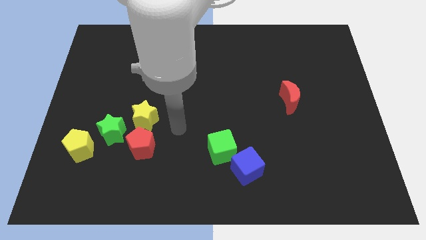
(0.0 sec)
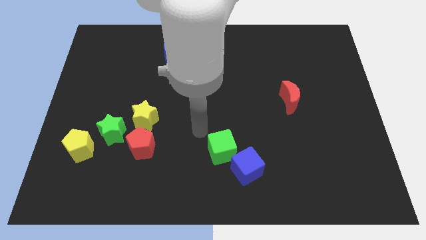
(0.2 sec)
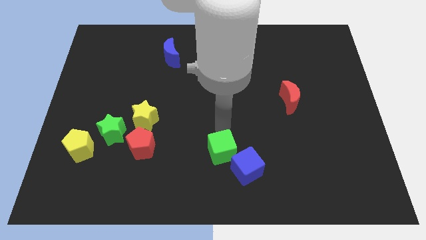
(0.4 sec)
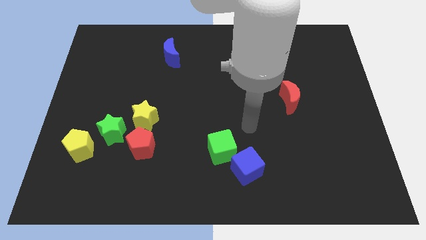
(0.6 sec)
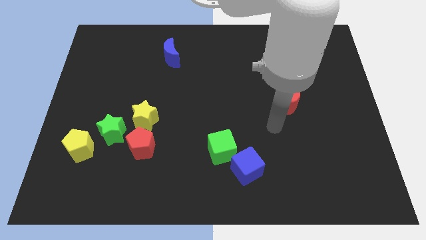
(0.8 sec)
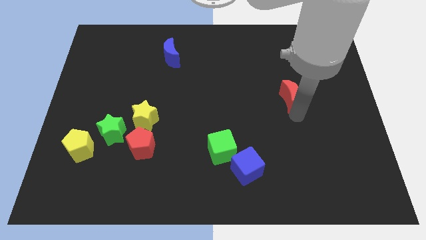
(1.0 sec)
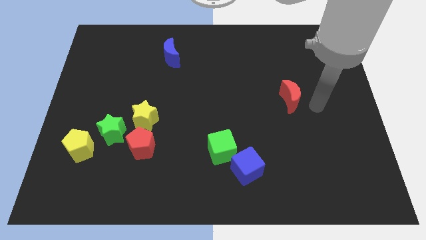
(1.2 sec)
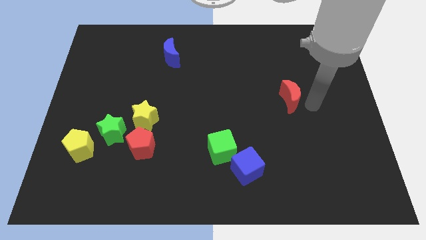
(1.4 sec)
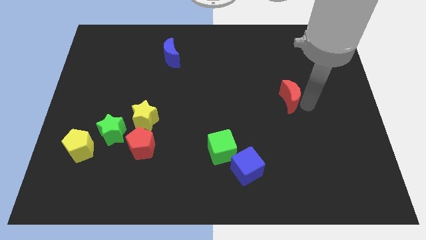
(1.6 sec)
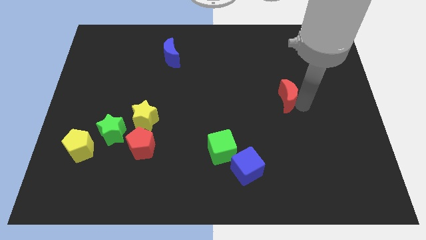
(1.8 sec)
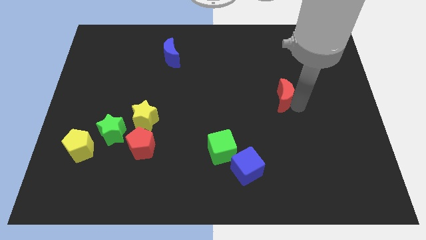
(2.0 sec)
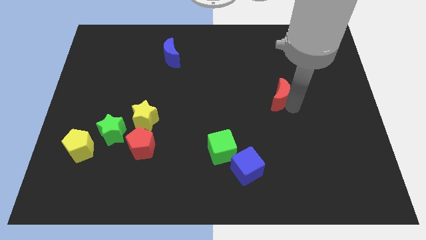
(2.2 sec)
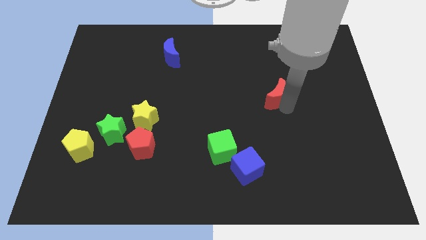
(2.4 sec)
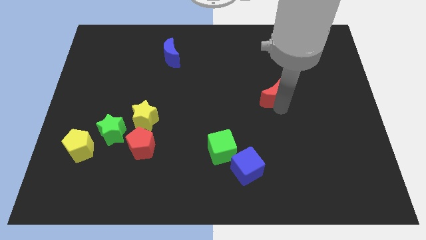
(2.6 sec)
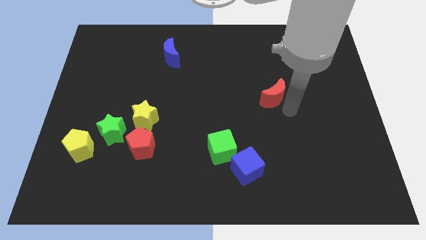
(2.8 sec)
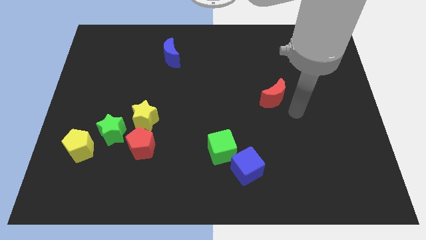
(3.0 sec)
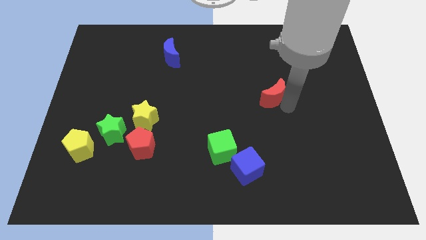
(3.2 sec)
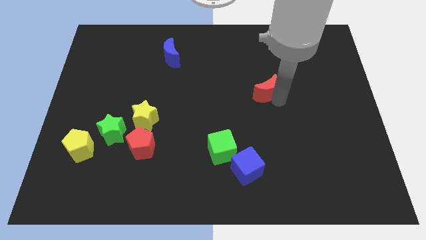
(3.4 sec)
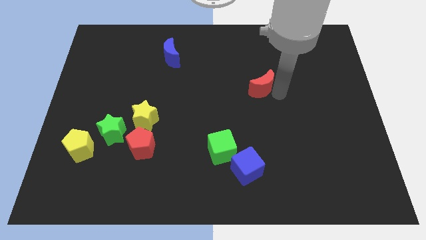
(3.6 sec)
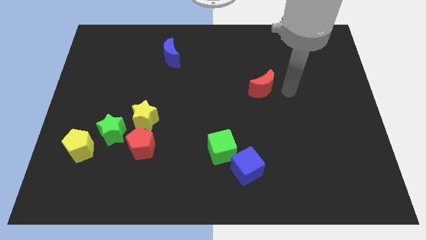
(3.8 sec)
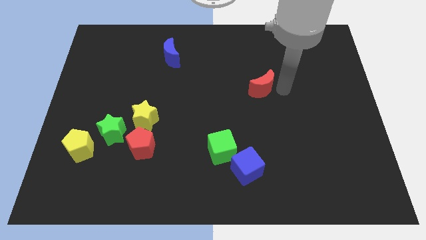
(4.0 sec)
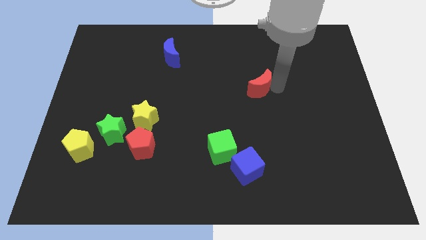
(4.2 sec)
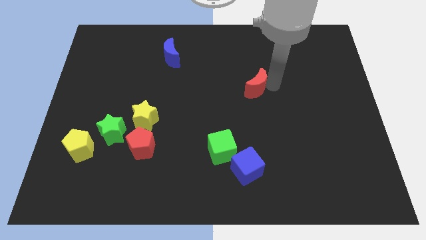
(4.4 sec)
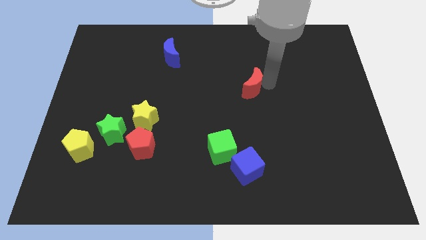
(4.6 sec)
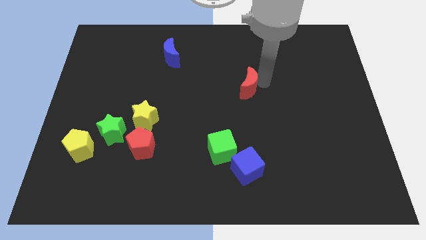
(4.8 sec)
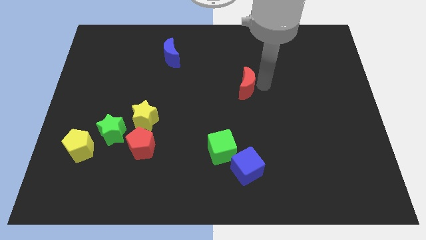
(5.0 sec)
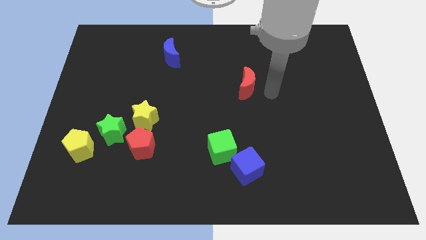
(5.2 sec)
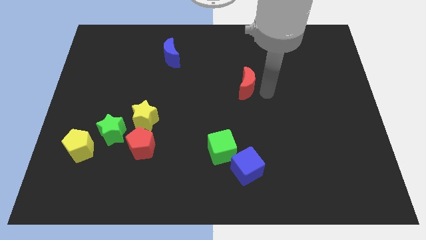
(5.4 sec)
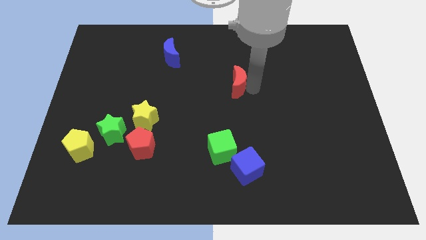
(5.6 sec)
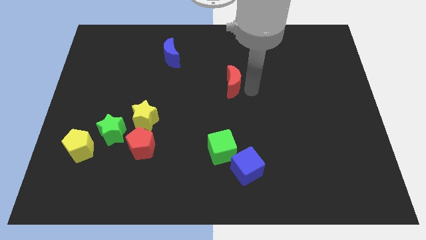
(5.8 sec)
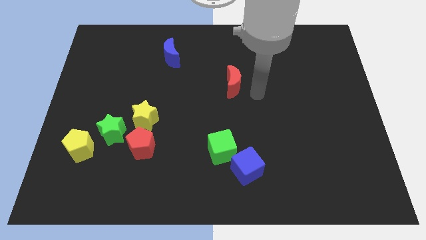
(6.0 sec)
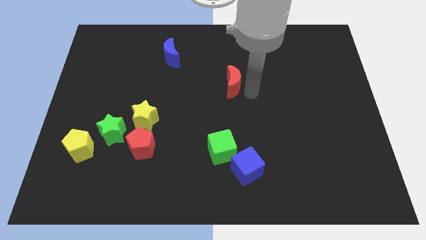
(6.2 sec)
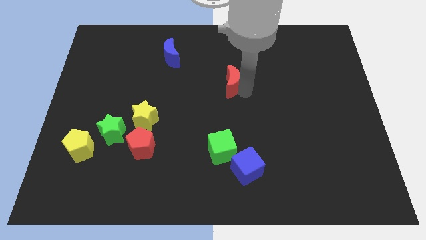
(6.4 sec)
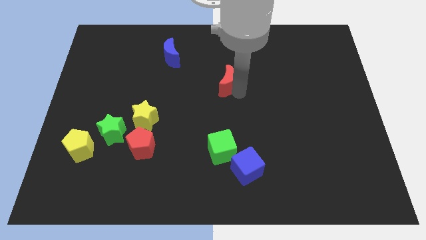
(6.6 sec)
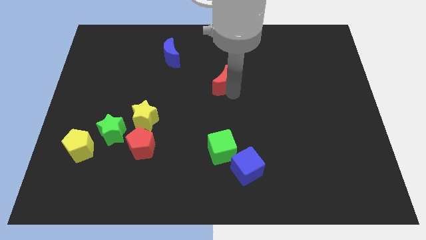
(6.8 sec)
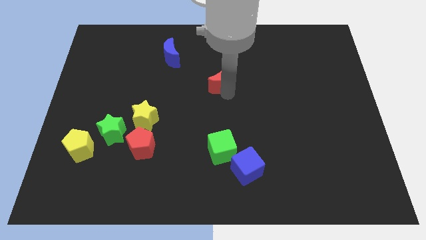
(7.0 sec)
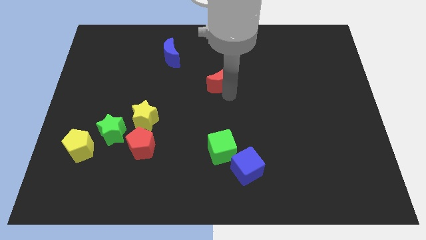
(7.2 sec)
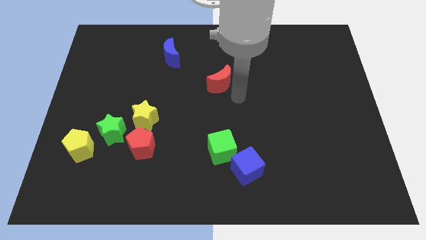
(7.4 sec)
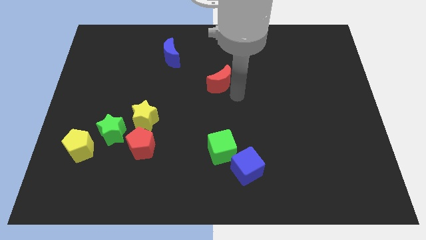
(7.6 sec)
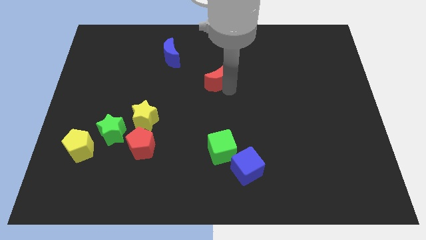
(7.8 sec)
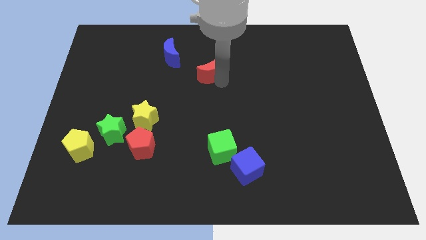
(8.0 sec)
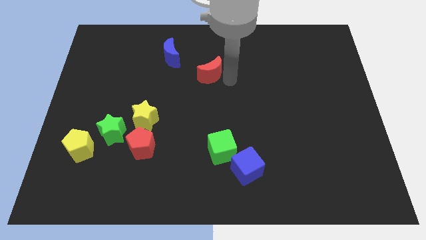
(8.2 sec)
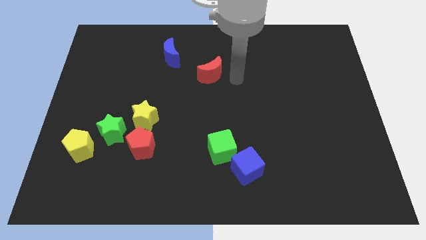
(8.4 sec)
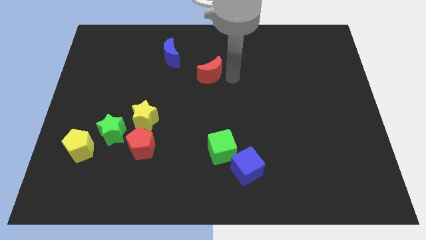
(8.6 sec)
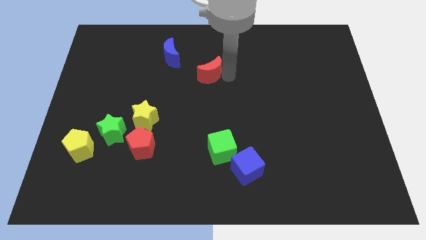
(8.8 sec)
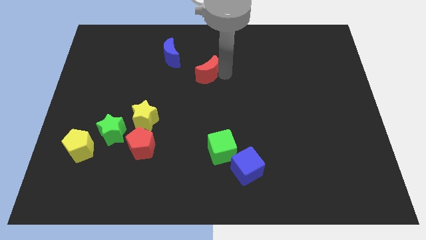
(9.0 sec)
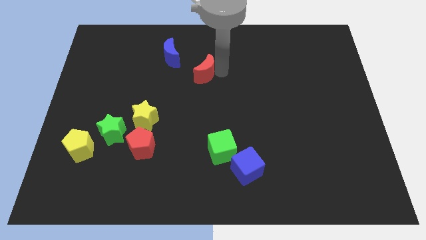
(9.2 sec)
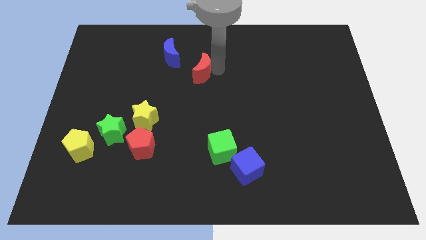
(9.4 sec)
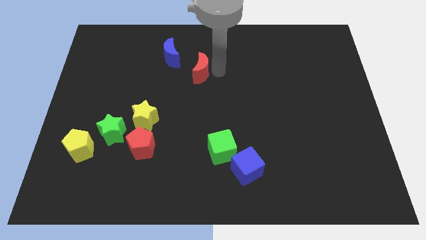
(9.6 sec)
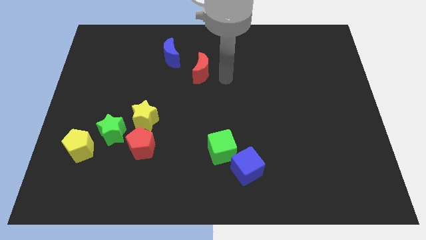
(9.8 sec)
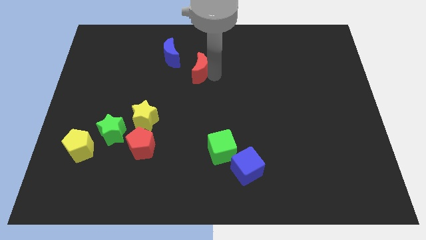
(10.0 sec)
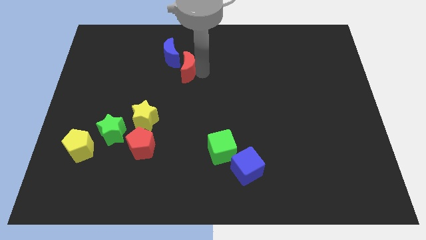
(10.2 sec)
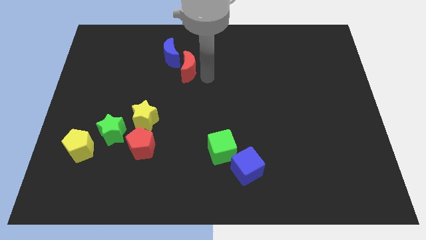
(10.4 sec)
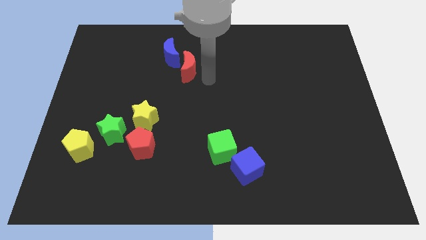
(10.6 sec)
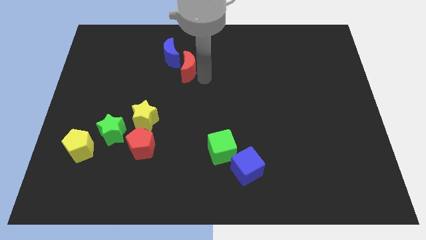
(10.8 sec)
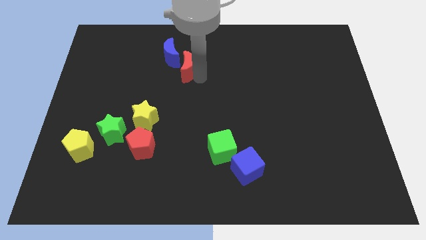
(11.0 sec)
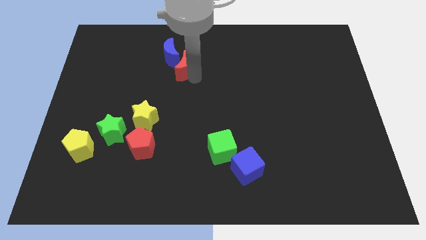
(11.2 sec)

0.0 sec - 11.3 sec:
move the red moon close to the blue moon
